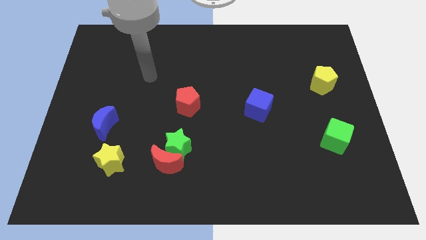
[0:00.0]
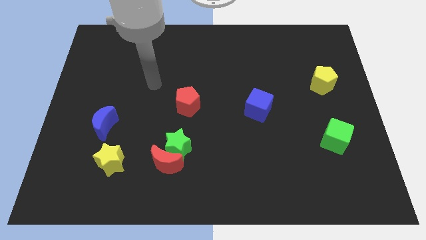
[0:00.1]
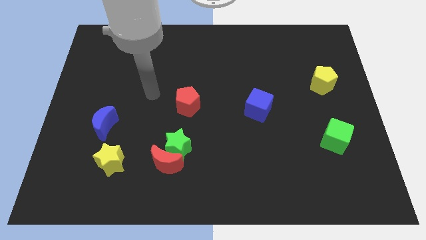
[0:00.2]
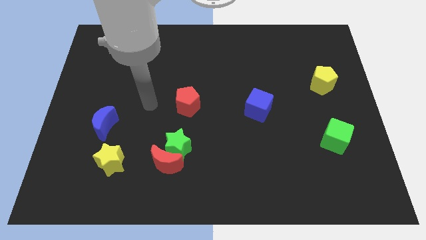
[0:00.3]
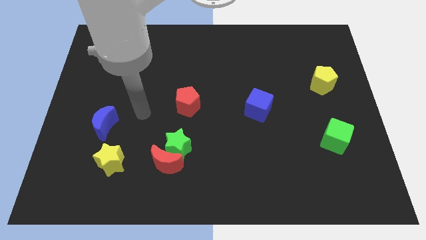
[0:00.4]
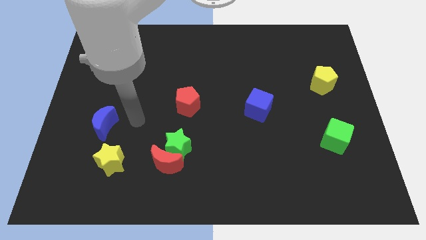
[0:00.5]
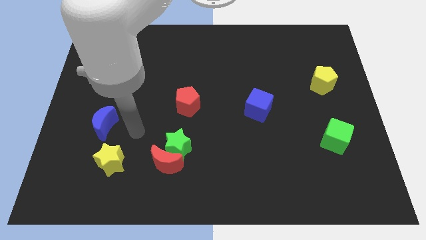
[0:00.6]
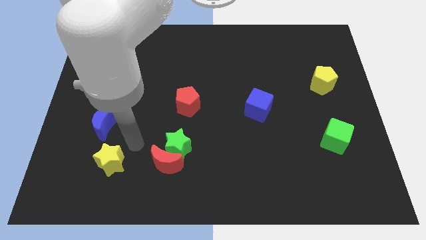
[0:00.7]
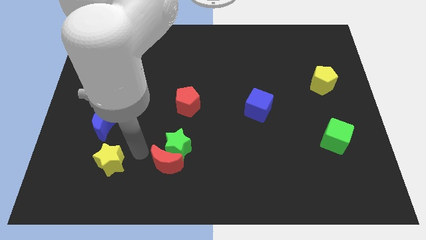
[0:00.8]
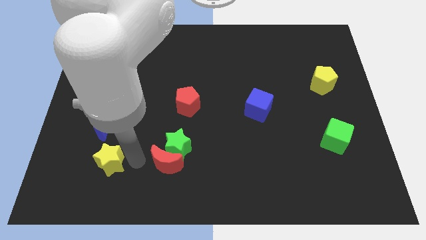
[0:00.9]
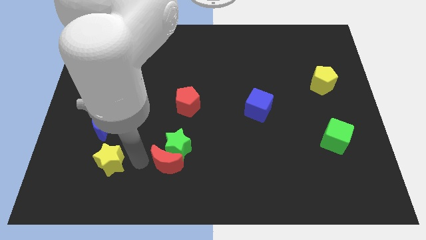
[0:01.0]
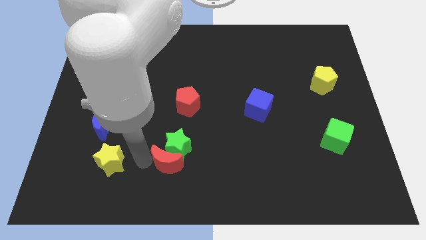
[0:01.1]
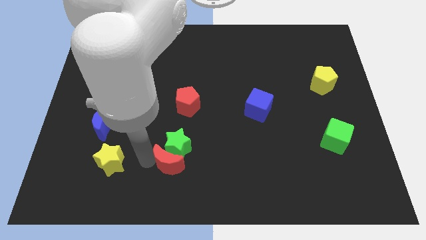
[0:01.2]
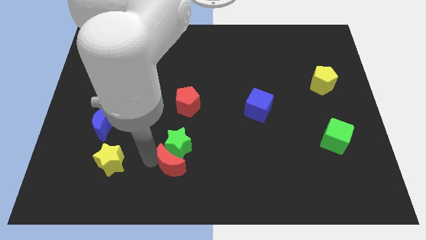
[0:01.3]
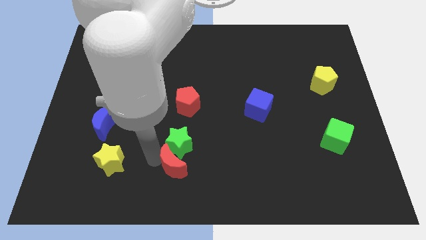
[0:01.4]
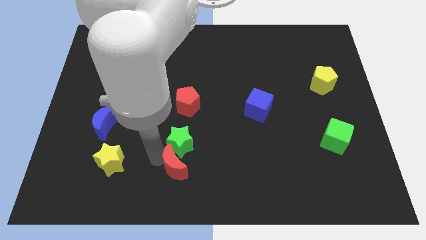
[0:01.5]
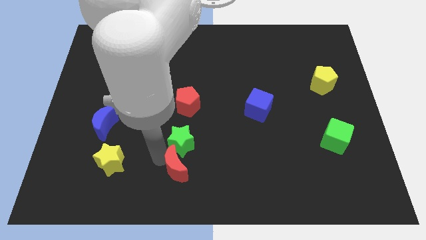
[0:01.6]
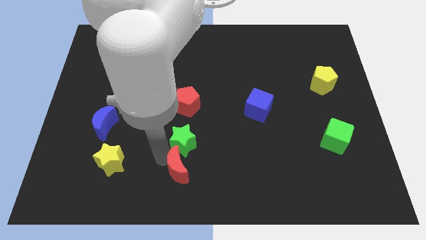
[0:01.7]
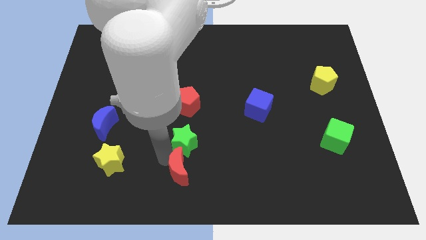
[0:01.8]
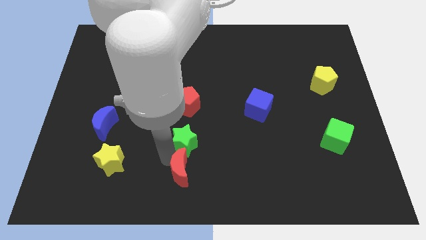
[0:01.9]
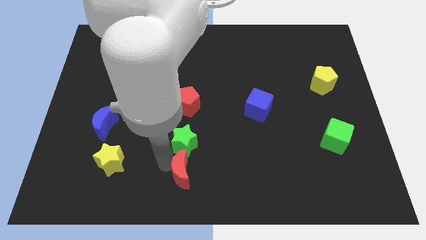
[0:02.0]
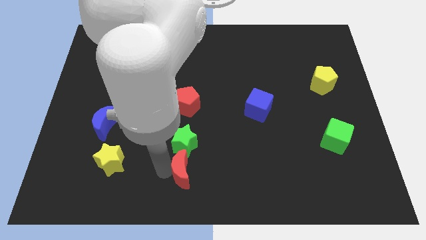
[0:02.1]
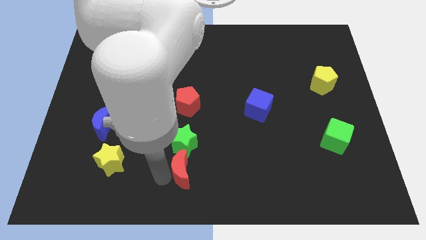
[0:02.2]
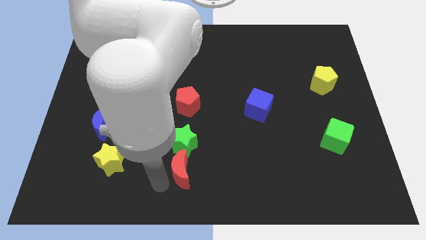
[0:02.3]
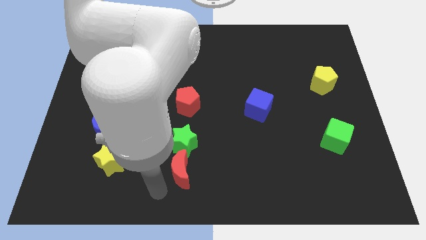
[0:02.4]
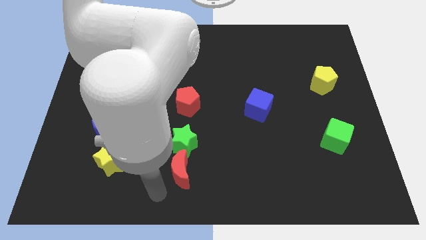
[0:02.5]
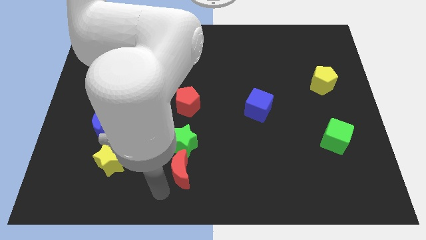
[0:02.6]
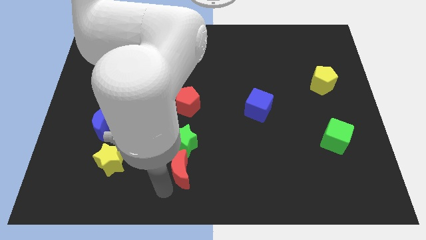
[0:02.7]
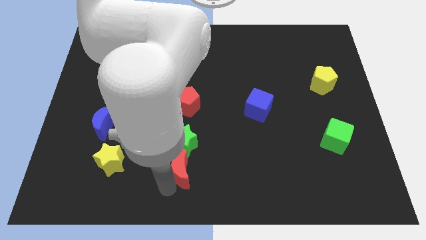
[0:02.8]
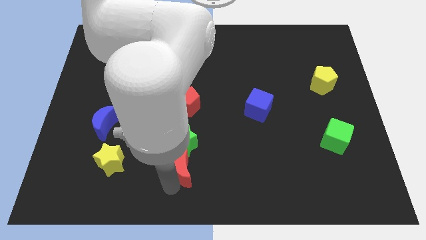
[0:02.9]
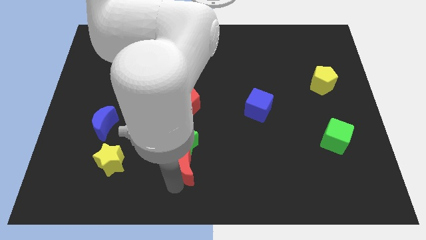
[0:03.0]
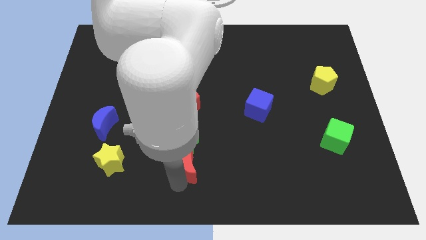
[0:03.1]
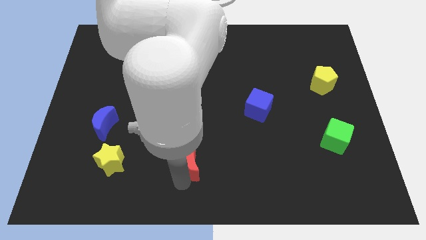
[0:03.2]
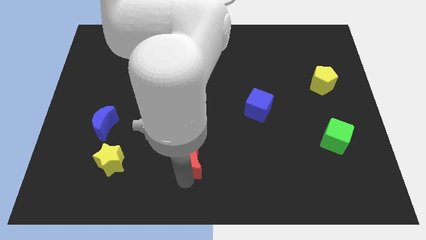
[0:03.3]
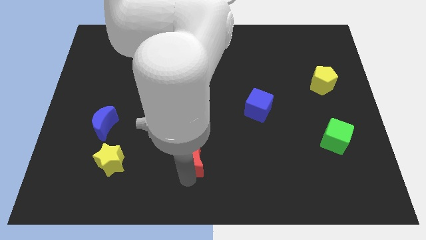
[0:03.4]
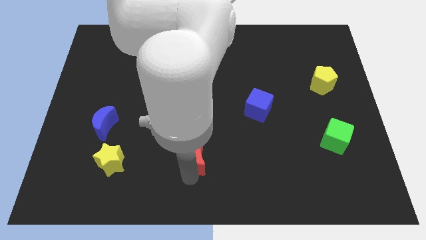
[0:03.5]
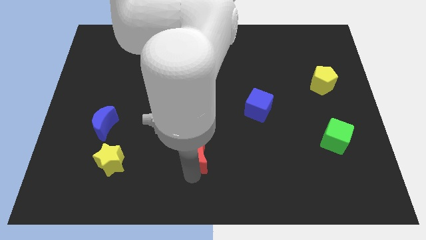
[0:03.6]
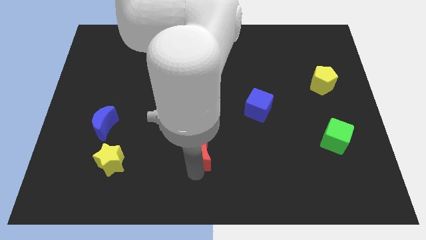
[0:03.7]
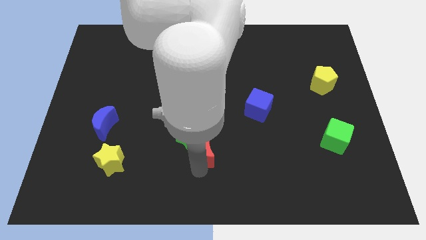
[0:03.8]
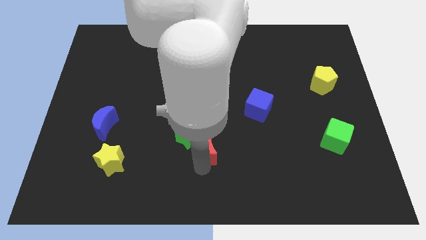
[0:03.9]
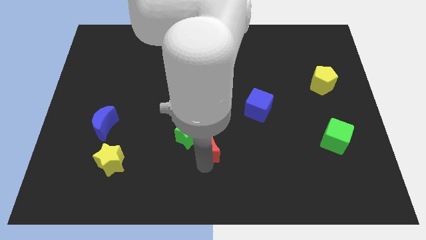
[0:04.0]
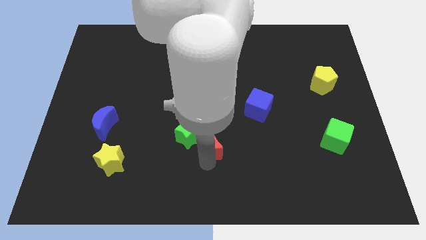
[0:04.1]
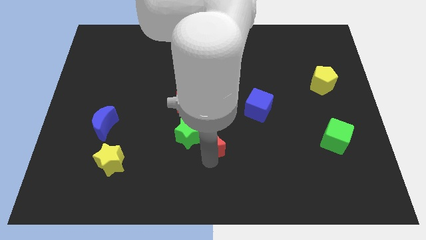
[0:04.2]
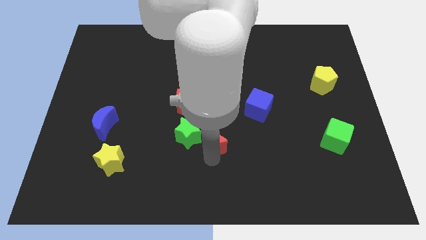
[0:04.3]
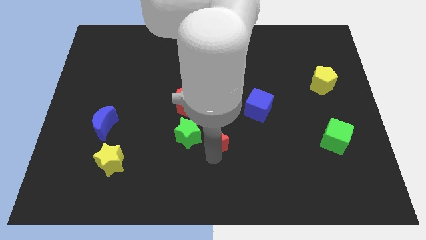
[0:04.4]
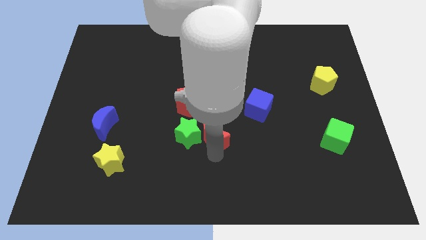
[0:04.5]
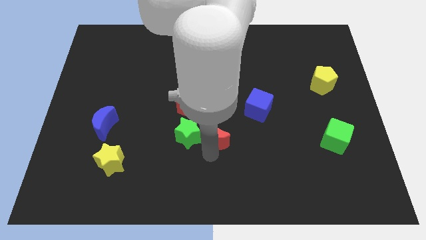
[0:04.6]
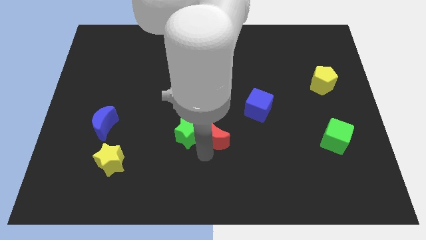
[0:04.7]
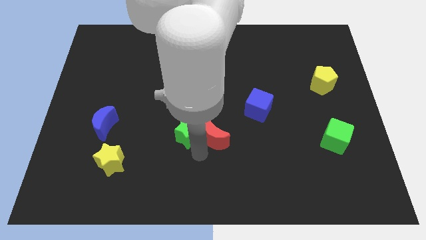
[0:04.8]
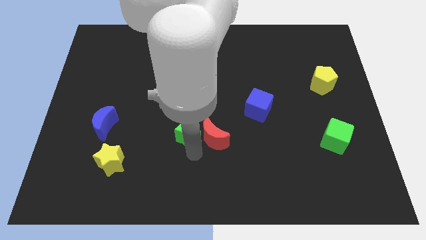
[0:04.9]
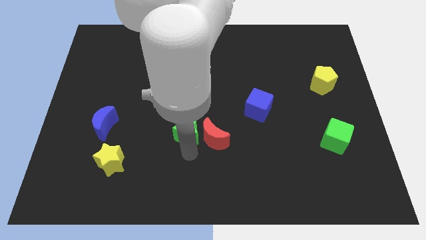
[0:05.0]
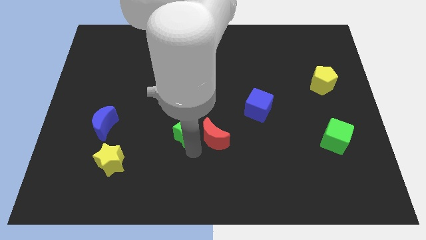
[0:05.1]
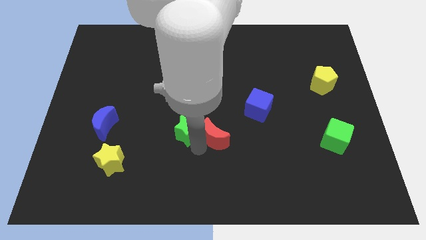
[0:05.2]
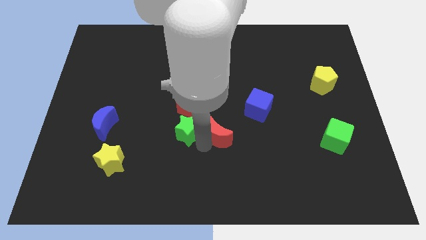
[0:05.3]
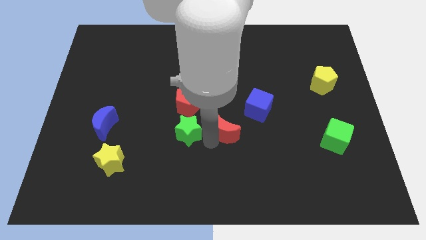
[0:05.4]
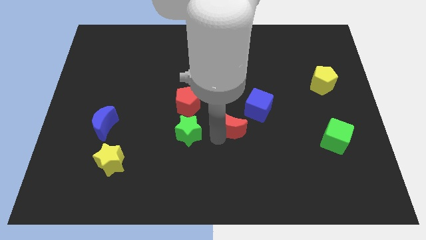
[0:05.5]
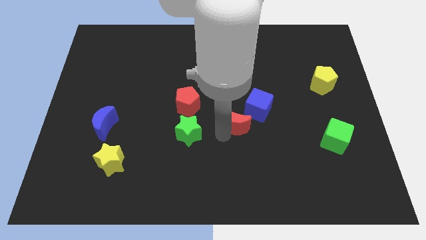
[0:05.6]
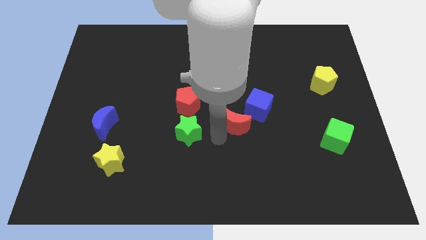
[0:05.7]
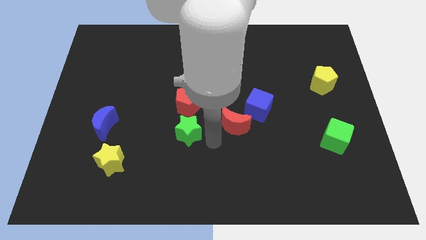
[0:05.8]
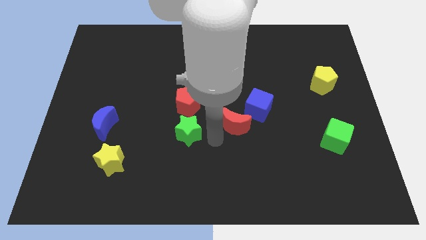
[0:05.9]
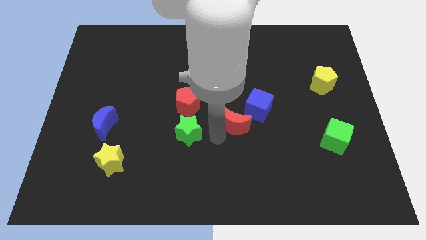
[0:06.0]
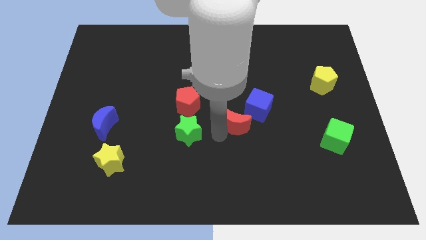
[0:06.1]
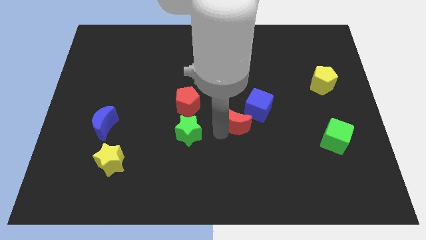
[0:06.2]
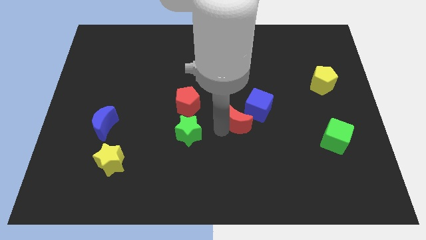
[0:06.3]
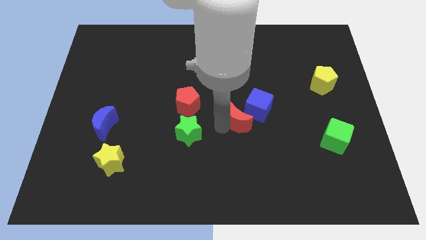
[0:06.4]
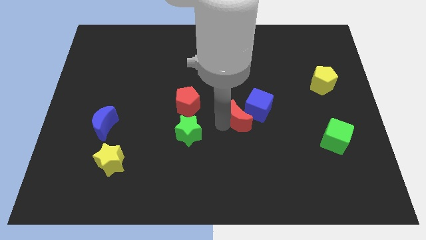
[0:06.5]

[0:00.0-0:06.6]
slide the red moon close to the blue cube
